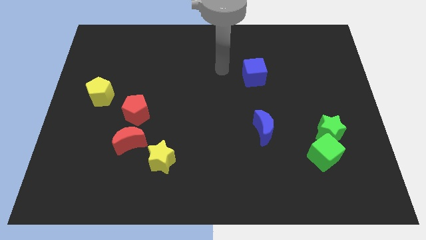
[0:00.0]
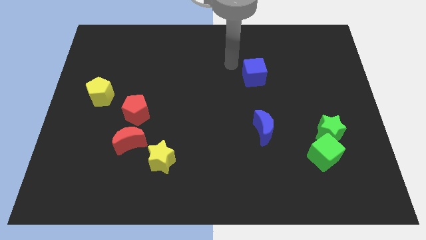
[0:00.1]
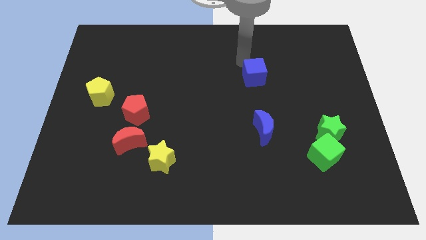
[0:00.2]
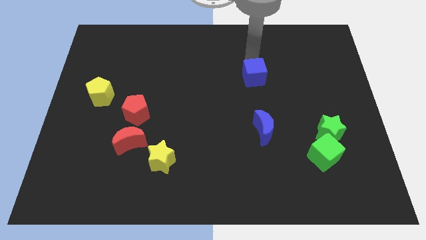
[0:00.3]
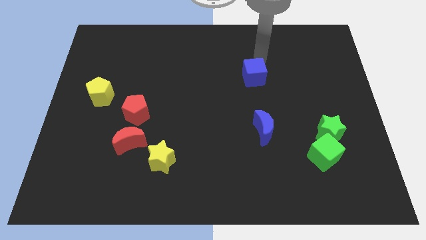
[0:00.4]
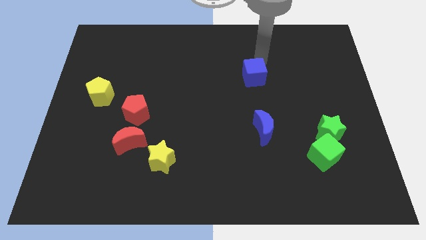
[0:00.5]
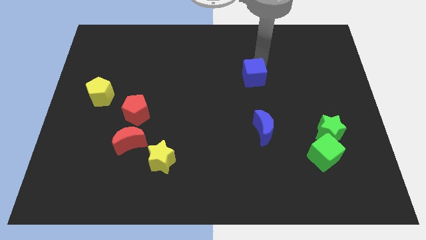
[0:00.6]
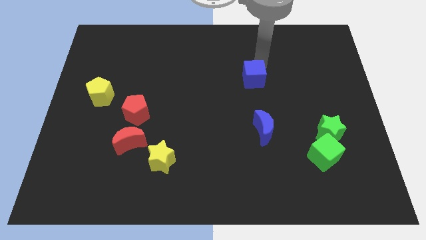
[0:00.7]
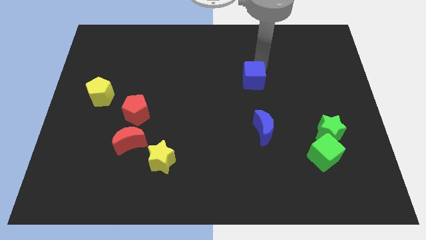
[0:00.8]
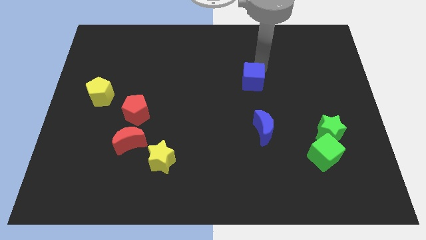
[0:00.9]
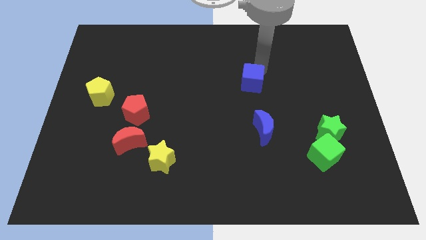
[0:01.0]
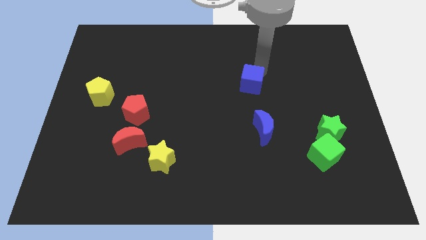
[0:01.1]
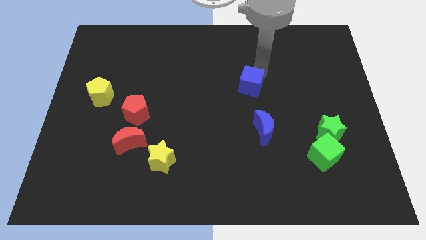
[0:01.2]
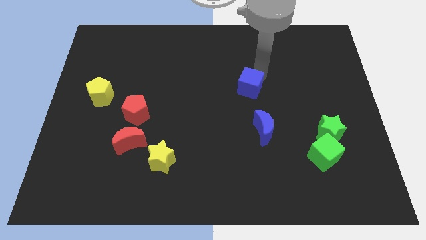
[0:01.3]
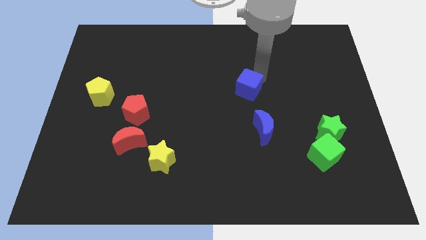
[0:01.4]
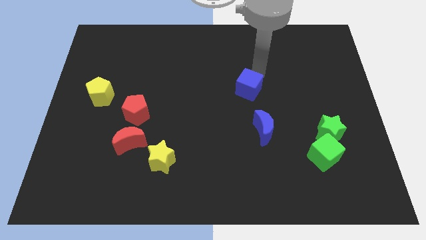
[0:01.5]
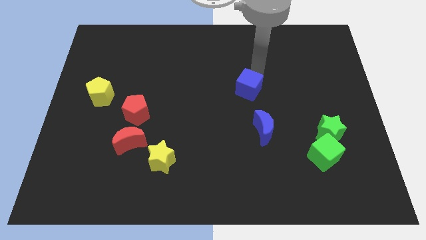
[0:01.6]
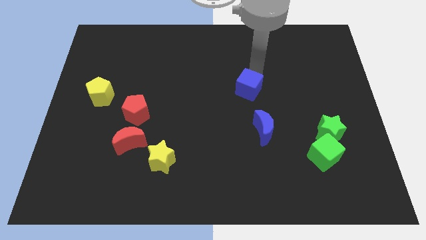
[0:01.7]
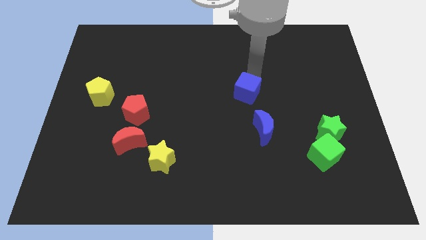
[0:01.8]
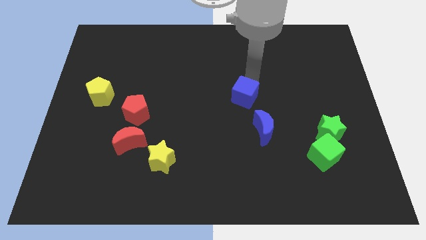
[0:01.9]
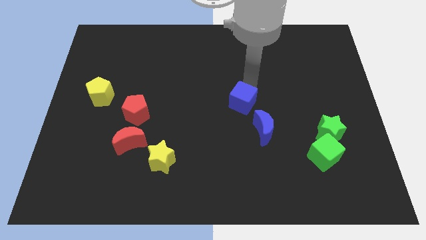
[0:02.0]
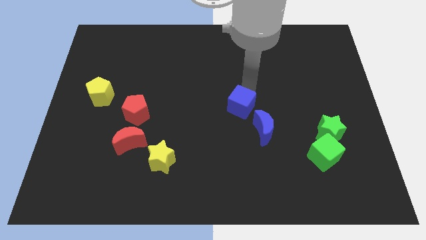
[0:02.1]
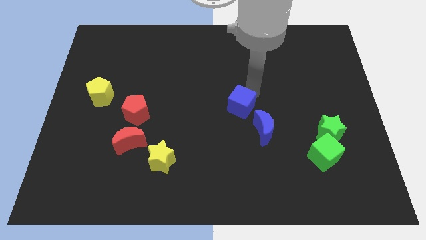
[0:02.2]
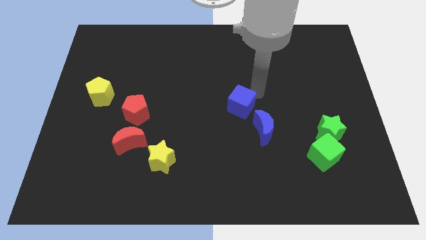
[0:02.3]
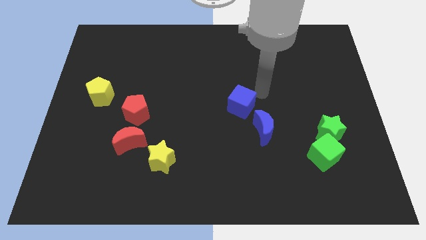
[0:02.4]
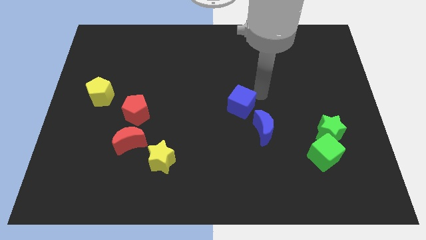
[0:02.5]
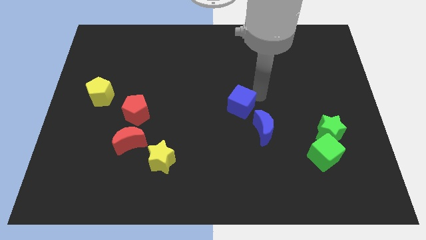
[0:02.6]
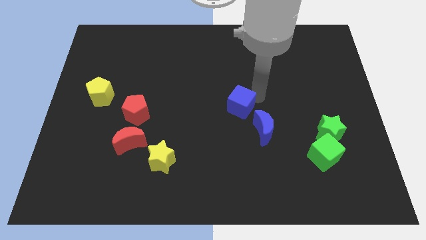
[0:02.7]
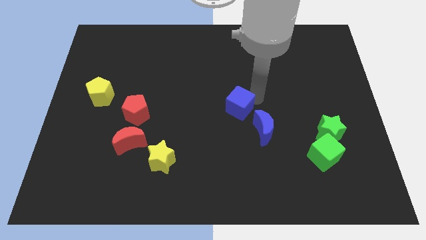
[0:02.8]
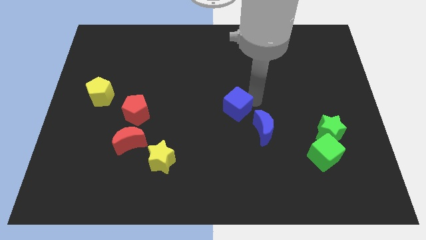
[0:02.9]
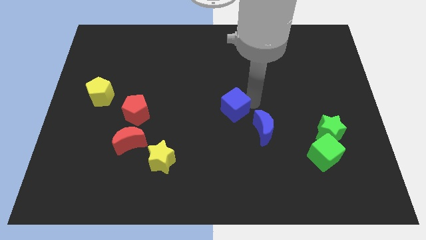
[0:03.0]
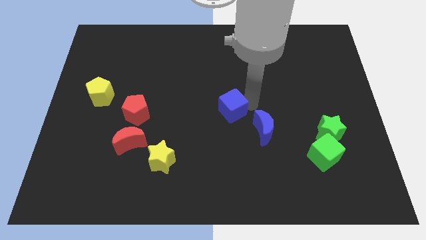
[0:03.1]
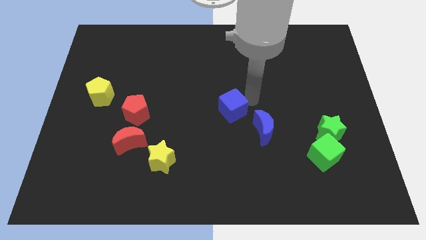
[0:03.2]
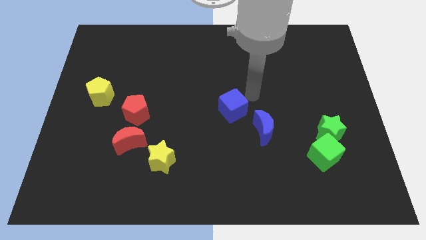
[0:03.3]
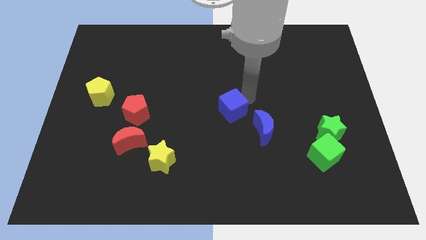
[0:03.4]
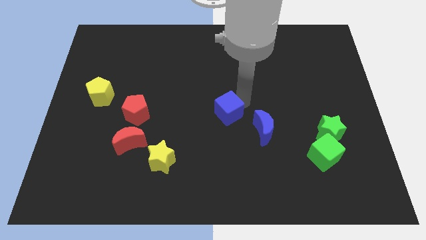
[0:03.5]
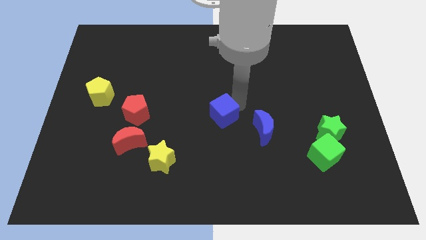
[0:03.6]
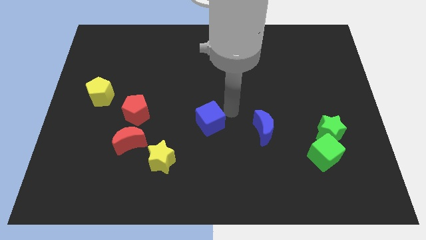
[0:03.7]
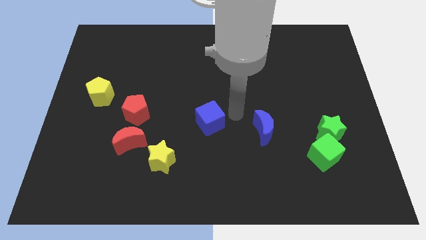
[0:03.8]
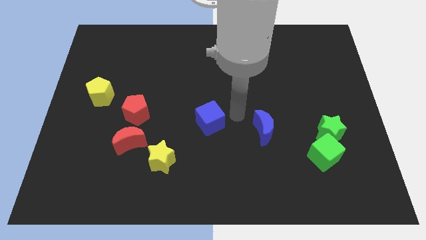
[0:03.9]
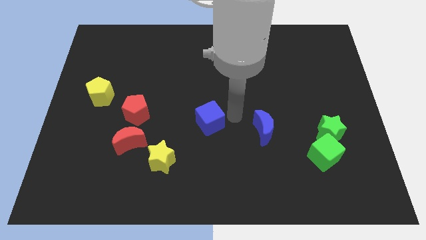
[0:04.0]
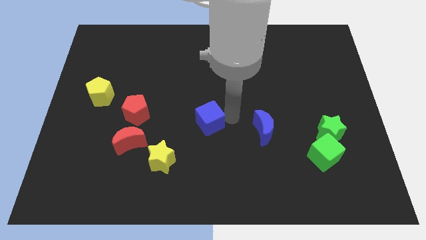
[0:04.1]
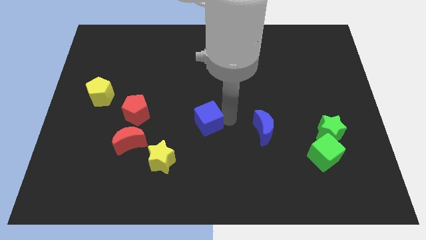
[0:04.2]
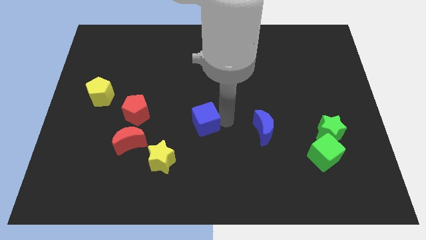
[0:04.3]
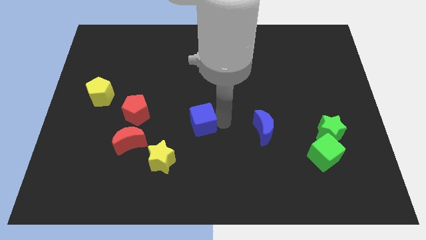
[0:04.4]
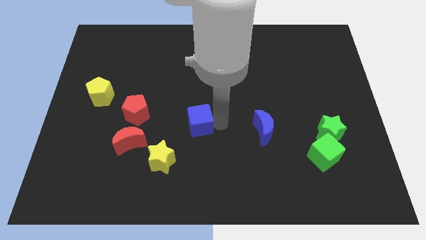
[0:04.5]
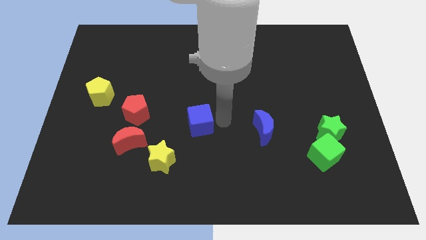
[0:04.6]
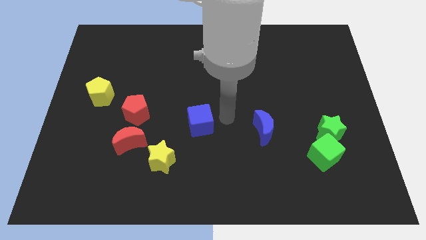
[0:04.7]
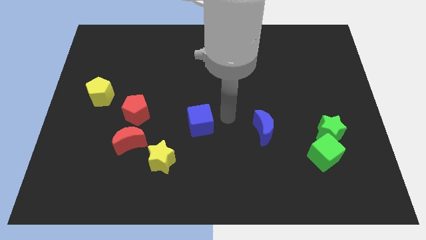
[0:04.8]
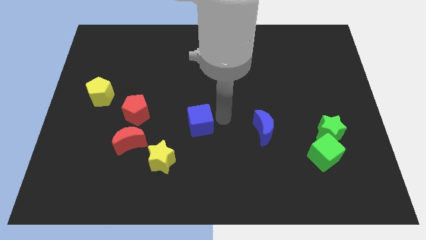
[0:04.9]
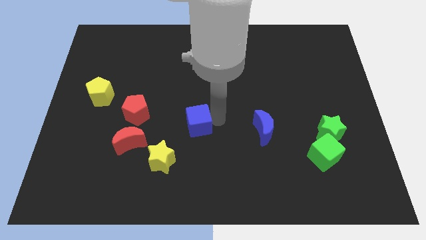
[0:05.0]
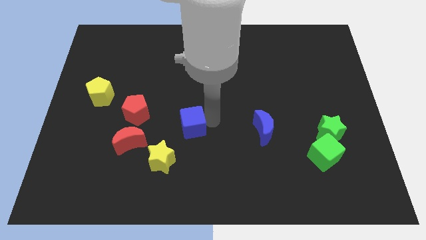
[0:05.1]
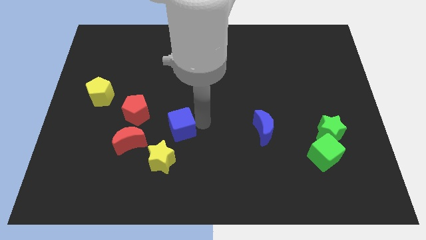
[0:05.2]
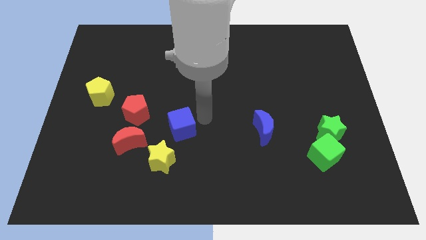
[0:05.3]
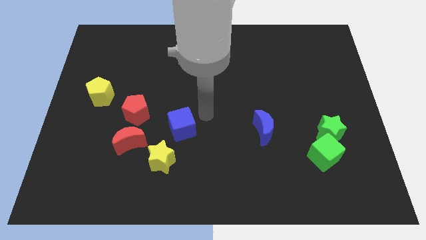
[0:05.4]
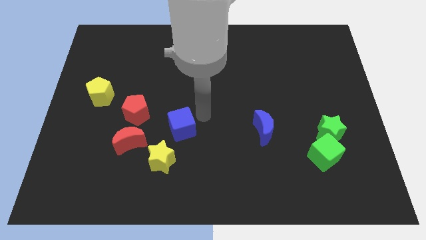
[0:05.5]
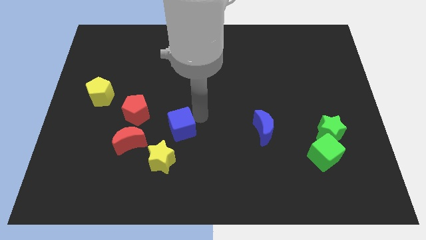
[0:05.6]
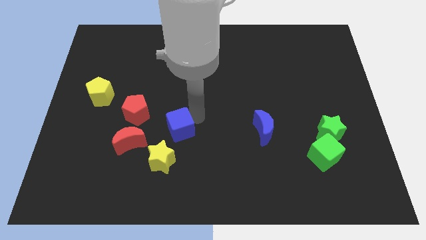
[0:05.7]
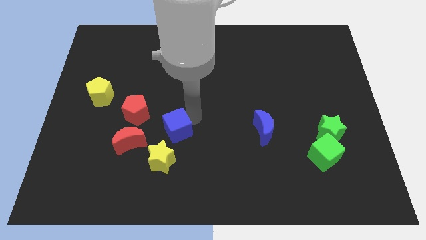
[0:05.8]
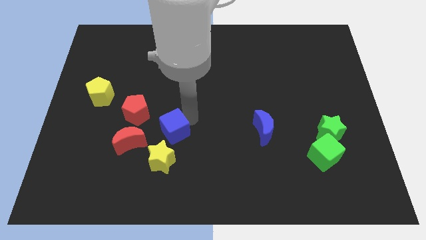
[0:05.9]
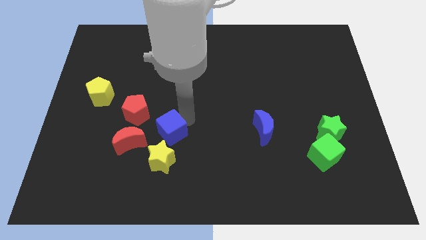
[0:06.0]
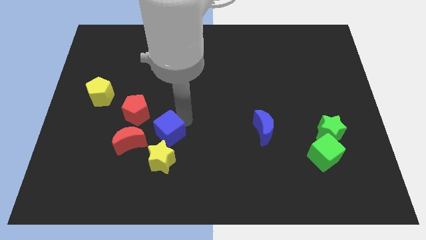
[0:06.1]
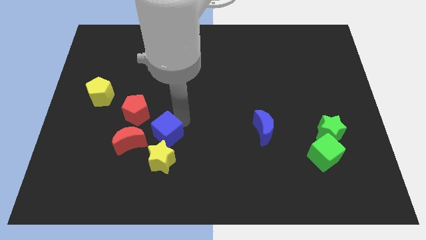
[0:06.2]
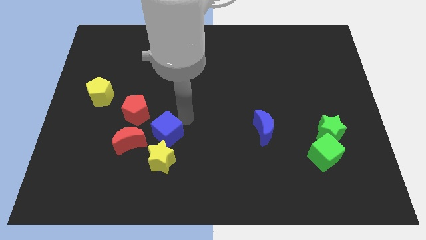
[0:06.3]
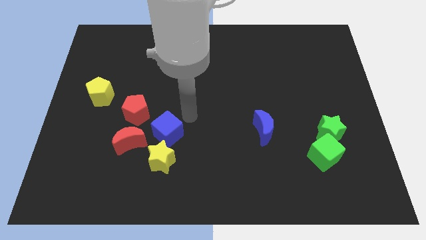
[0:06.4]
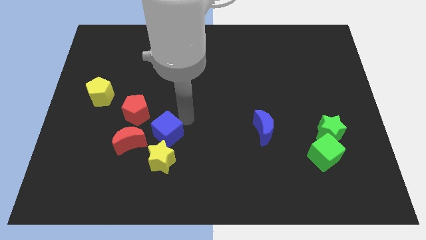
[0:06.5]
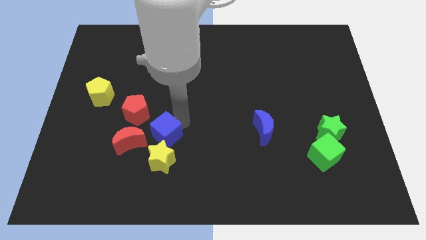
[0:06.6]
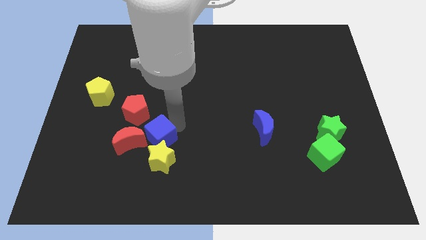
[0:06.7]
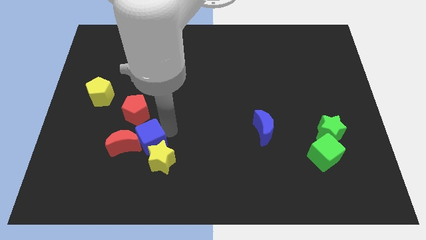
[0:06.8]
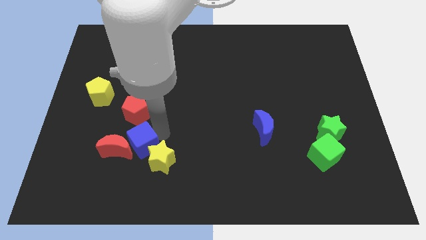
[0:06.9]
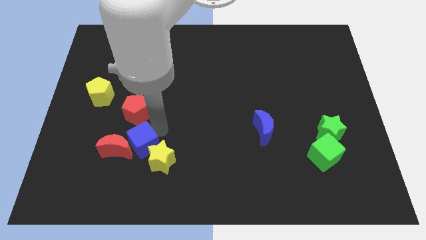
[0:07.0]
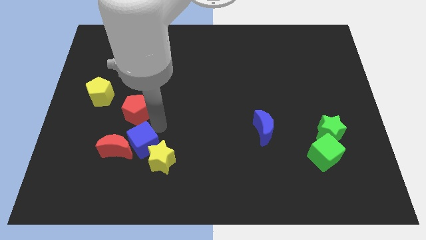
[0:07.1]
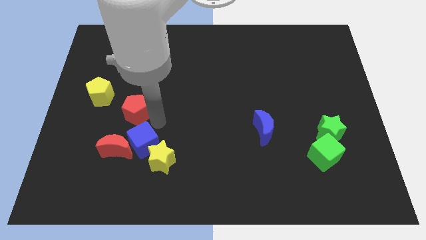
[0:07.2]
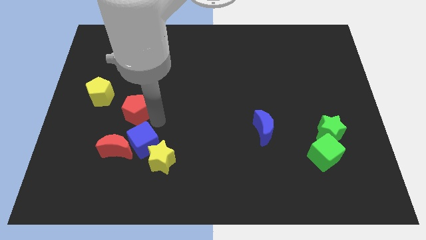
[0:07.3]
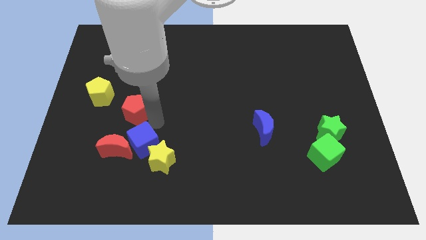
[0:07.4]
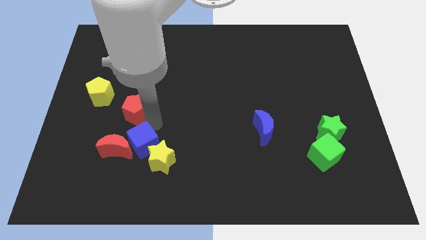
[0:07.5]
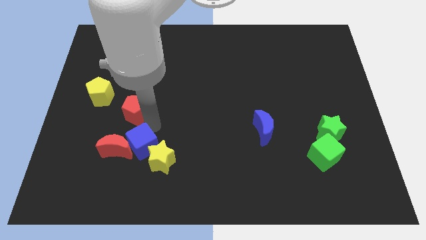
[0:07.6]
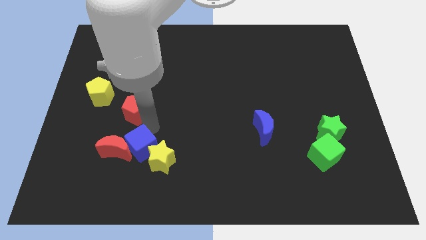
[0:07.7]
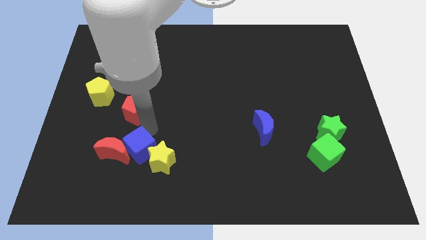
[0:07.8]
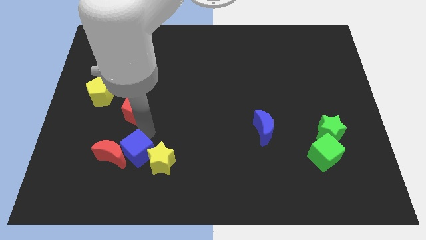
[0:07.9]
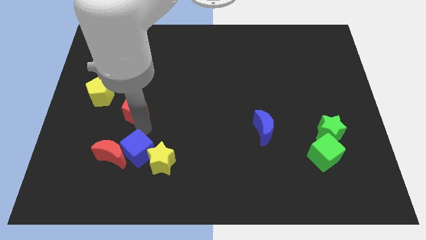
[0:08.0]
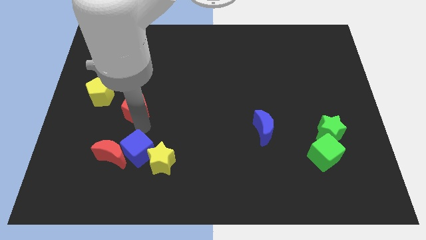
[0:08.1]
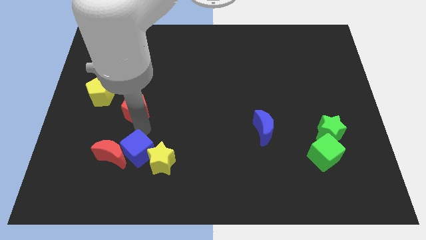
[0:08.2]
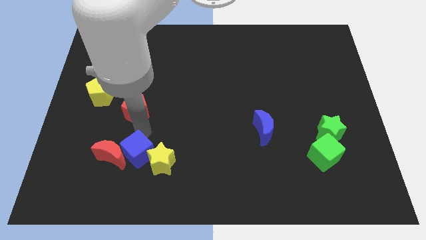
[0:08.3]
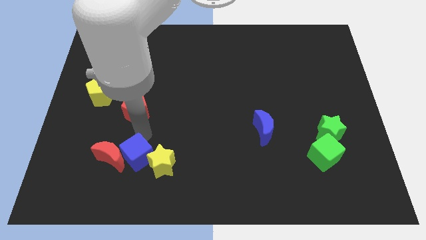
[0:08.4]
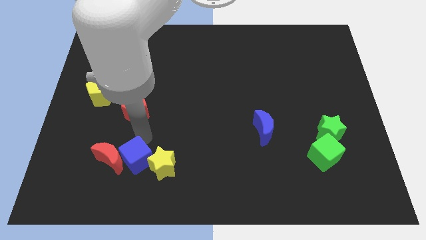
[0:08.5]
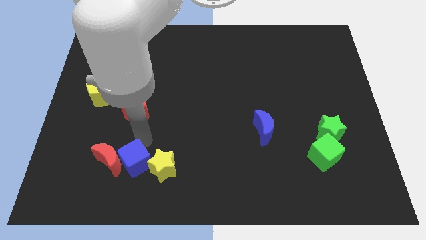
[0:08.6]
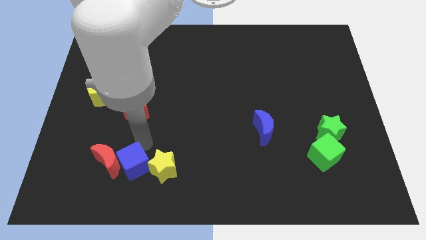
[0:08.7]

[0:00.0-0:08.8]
push the blue cube to the bottom left of the yellow star
